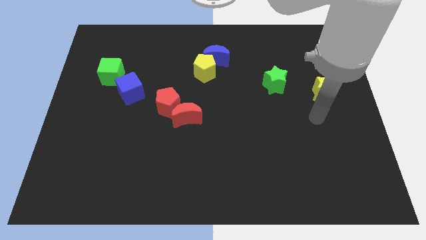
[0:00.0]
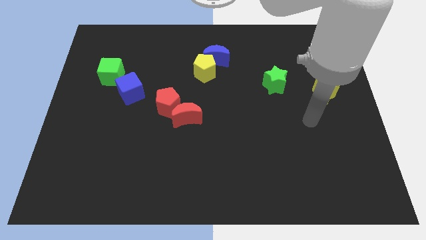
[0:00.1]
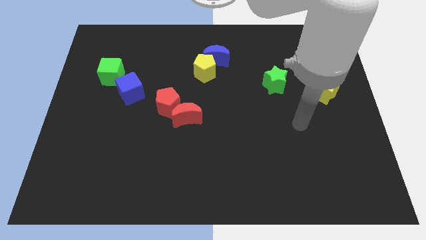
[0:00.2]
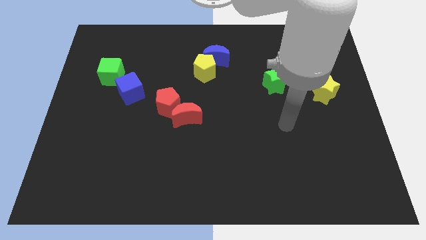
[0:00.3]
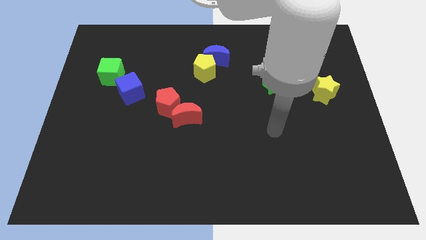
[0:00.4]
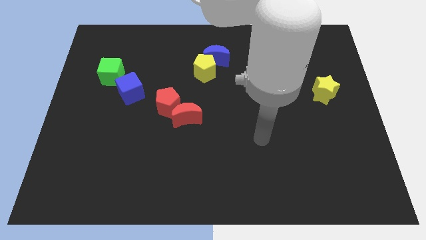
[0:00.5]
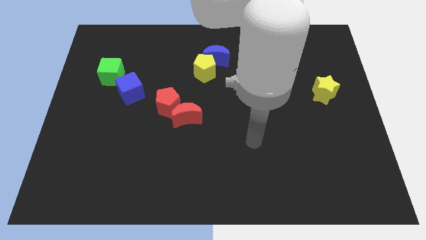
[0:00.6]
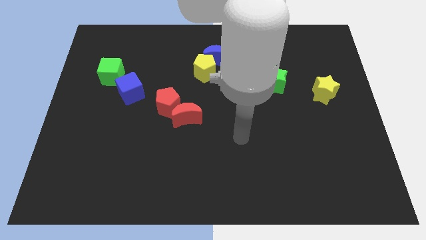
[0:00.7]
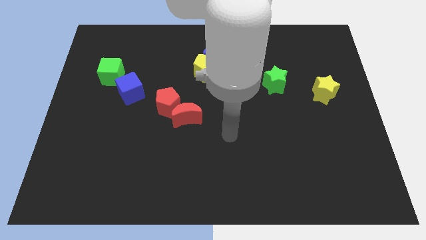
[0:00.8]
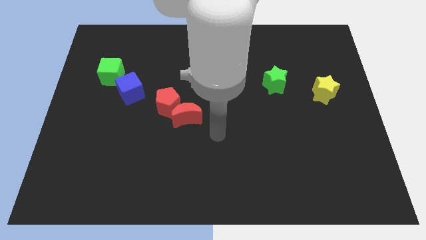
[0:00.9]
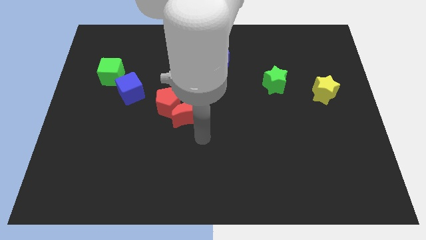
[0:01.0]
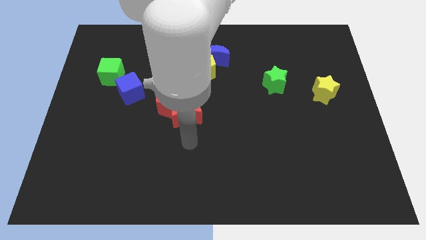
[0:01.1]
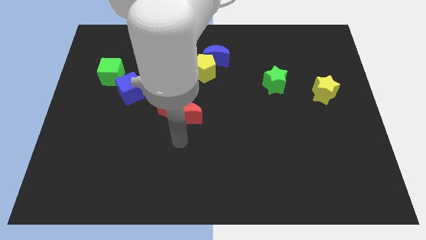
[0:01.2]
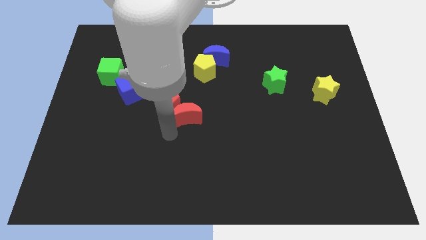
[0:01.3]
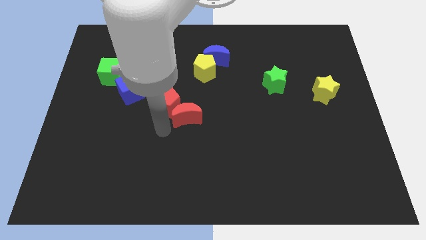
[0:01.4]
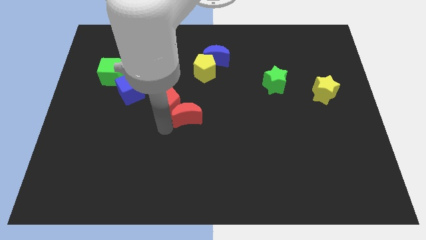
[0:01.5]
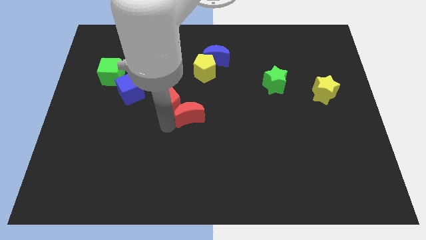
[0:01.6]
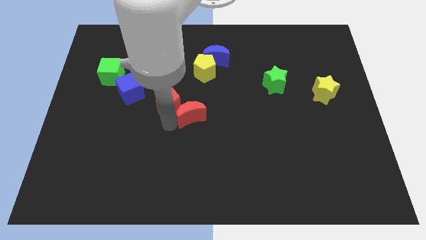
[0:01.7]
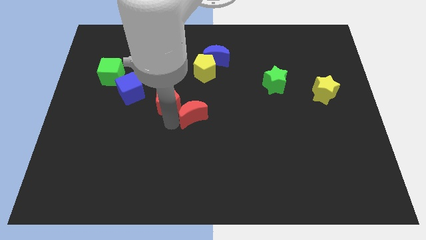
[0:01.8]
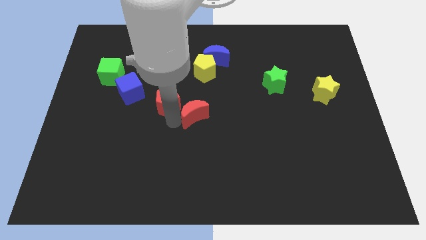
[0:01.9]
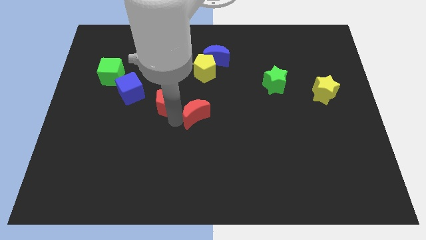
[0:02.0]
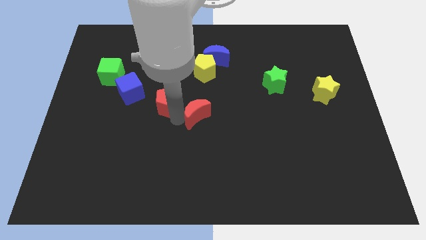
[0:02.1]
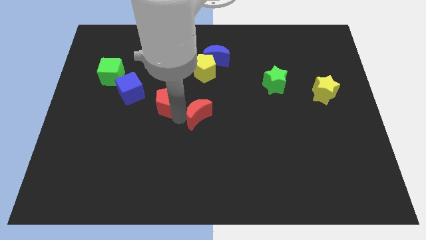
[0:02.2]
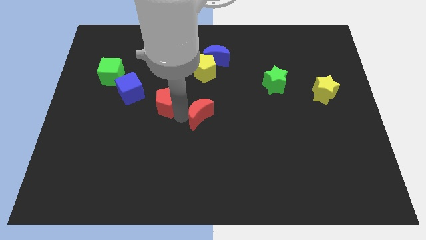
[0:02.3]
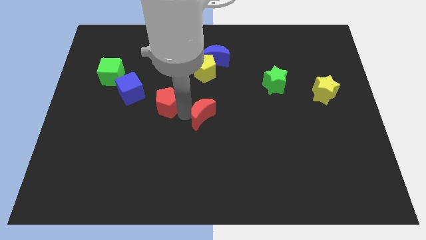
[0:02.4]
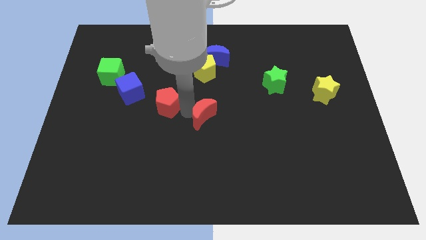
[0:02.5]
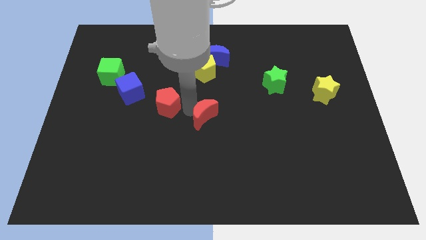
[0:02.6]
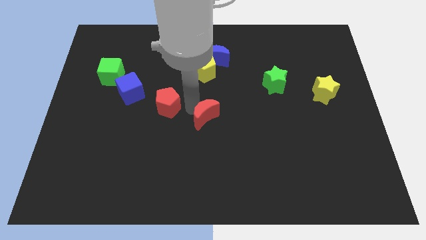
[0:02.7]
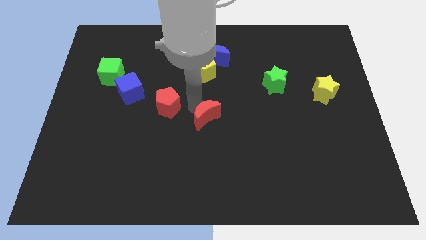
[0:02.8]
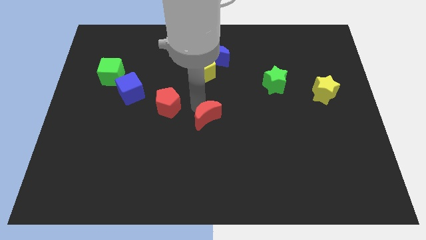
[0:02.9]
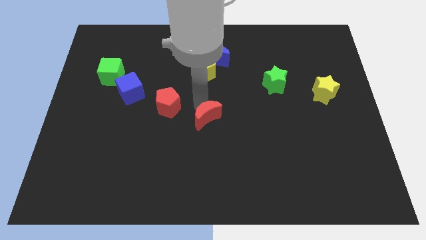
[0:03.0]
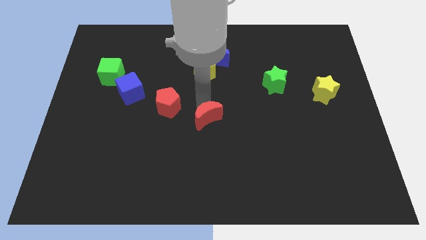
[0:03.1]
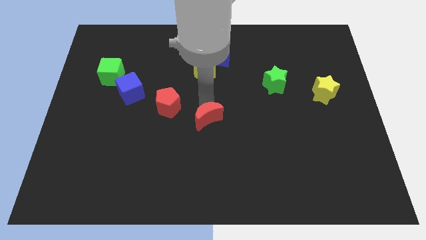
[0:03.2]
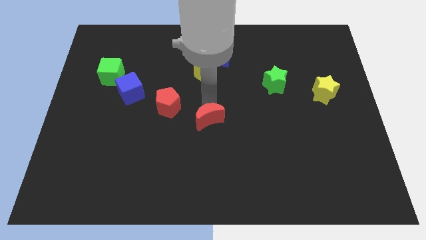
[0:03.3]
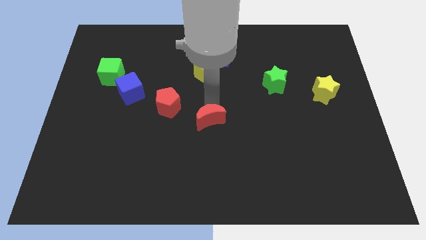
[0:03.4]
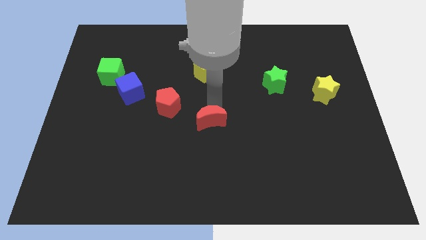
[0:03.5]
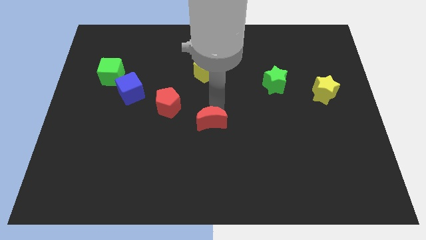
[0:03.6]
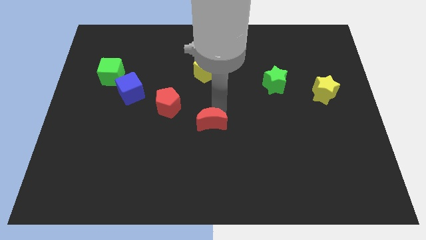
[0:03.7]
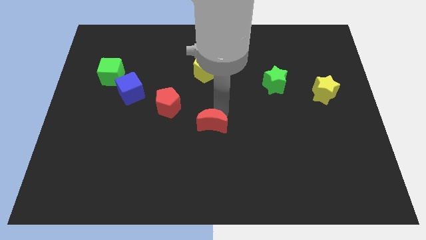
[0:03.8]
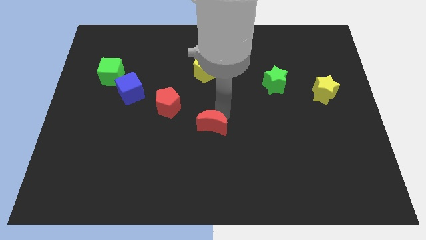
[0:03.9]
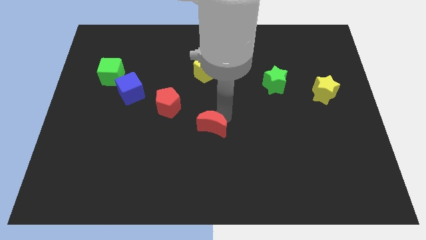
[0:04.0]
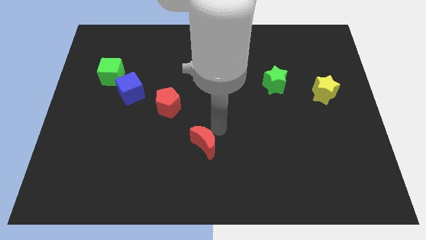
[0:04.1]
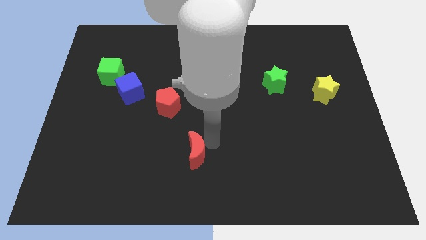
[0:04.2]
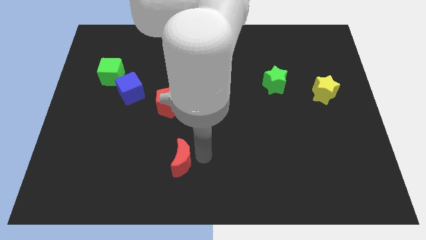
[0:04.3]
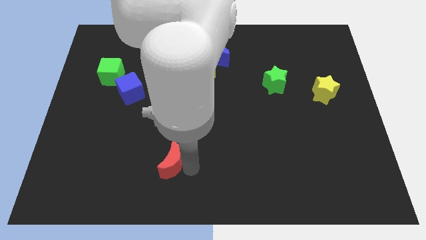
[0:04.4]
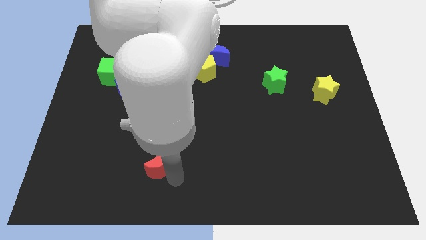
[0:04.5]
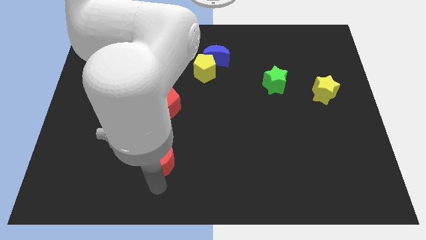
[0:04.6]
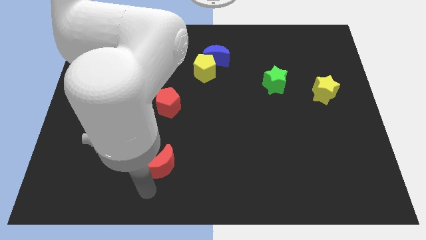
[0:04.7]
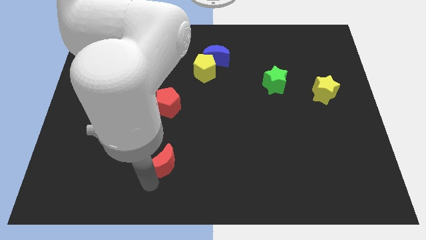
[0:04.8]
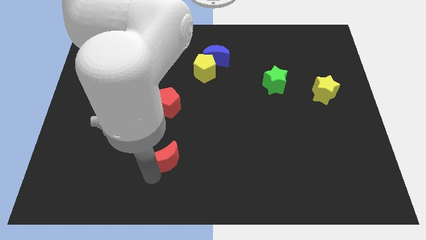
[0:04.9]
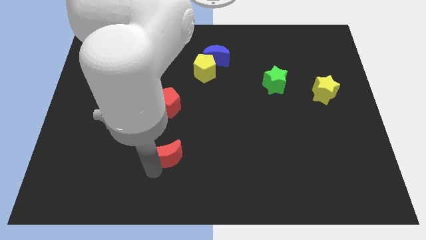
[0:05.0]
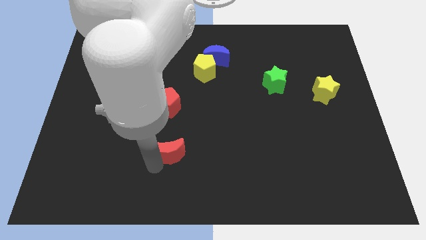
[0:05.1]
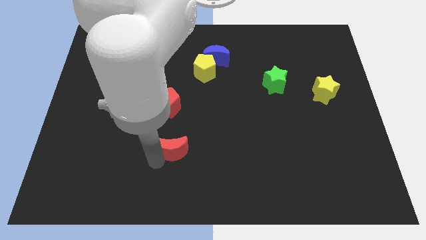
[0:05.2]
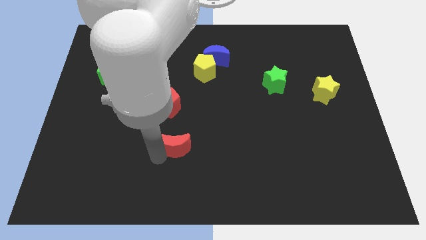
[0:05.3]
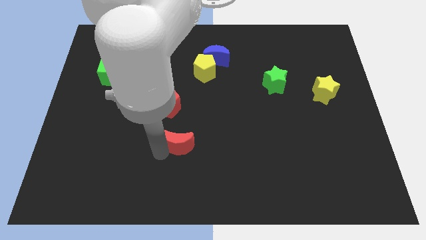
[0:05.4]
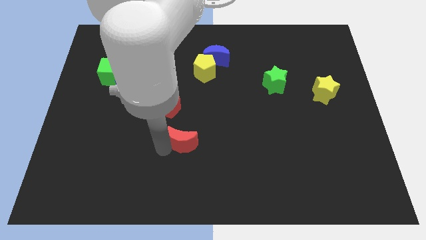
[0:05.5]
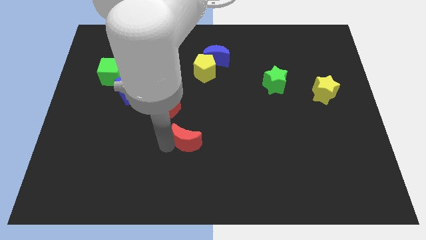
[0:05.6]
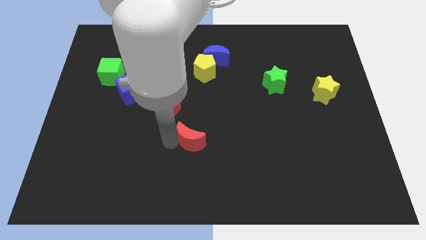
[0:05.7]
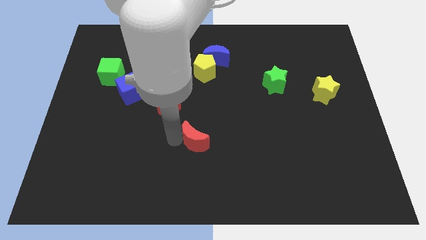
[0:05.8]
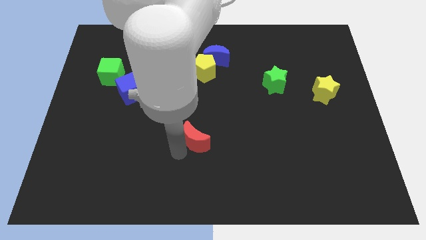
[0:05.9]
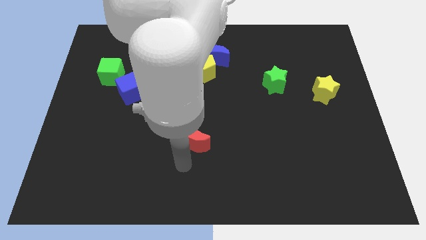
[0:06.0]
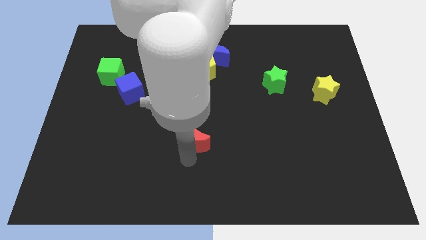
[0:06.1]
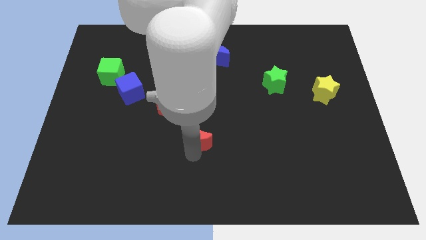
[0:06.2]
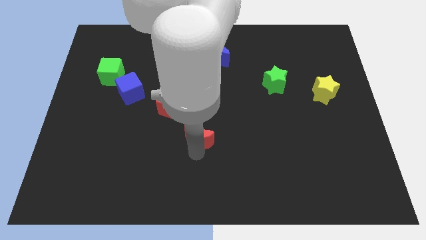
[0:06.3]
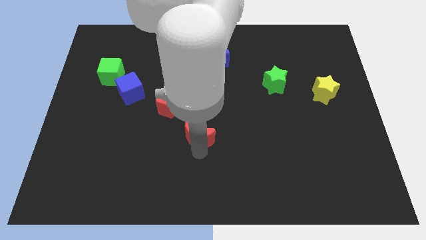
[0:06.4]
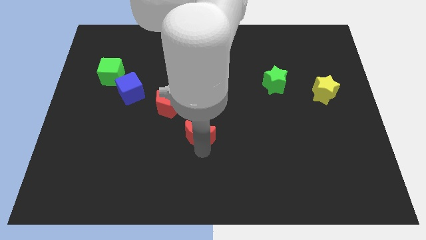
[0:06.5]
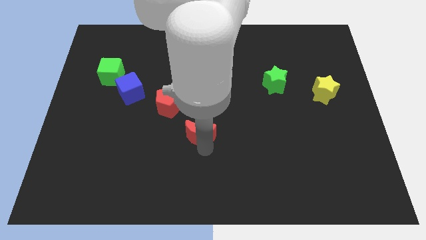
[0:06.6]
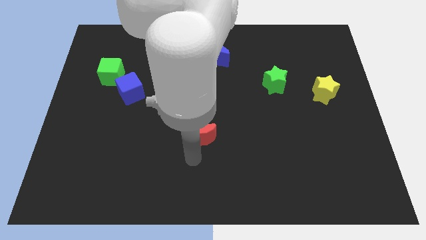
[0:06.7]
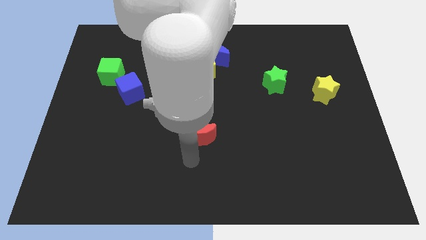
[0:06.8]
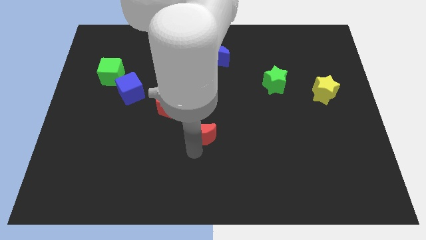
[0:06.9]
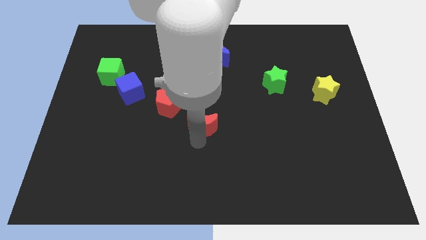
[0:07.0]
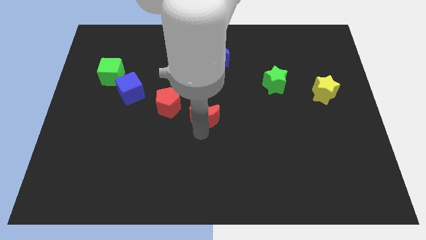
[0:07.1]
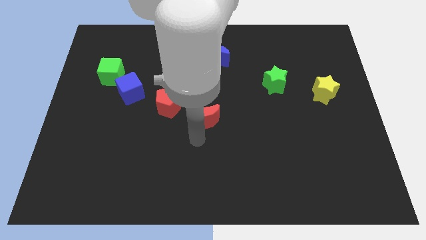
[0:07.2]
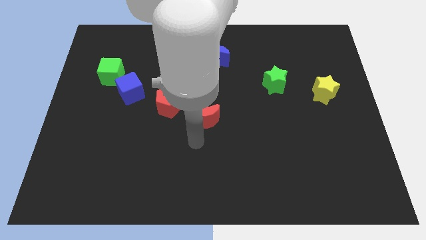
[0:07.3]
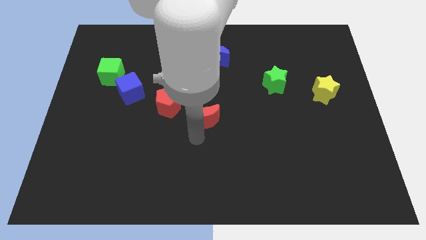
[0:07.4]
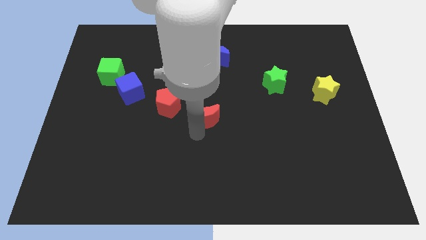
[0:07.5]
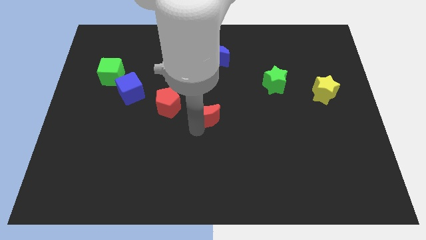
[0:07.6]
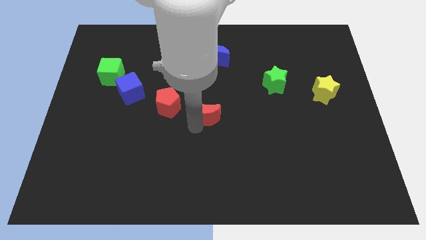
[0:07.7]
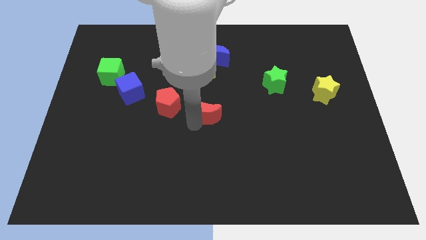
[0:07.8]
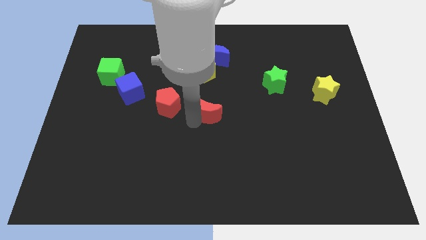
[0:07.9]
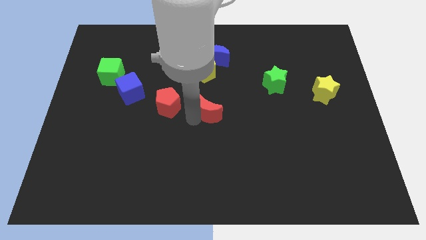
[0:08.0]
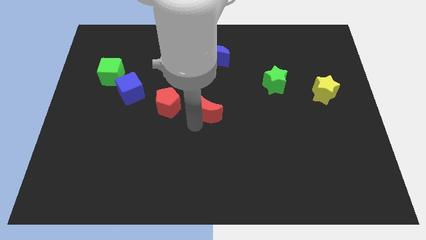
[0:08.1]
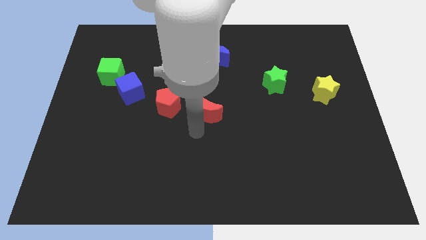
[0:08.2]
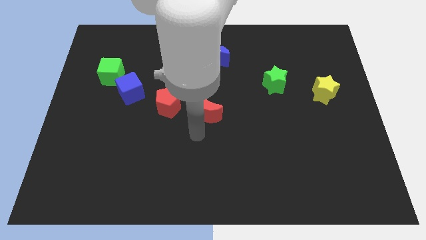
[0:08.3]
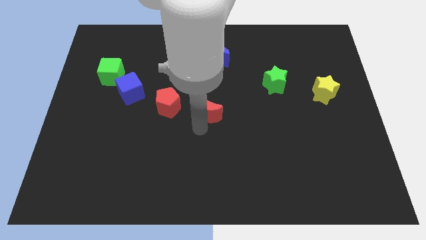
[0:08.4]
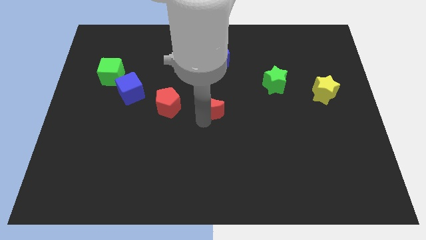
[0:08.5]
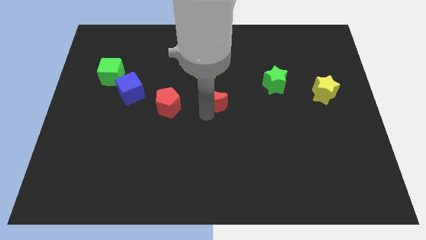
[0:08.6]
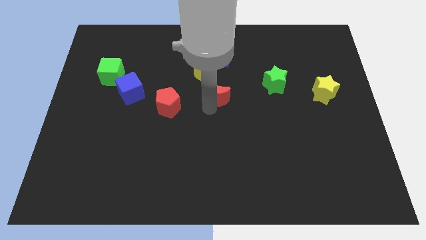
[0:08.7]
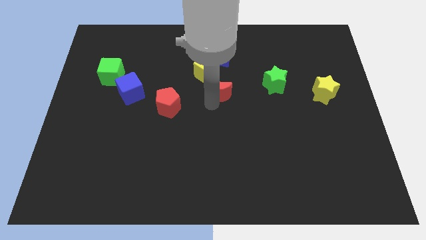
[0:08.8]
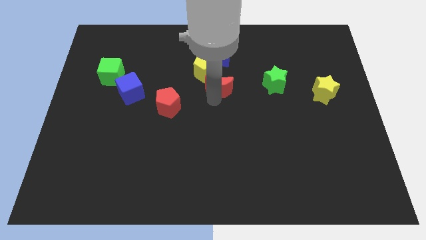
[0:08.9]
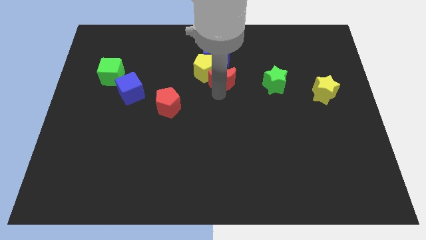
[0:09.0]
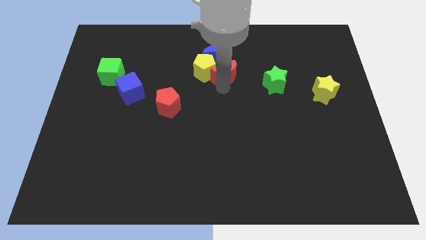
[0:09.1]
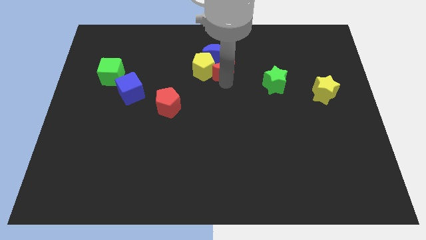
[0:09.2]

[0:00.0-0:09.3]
push the red moon to the blue moon
